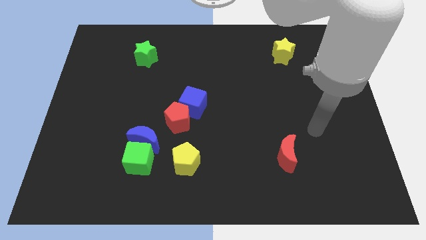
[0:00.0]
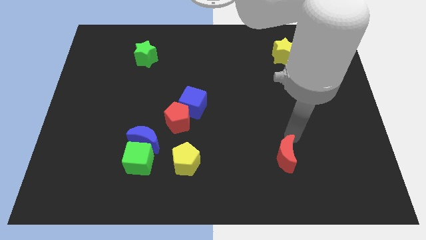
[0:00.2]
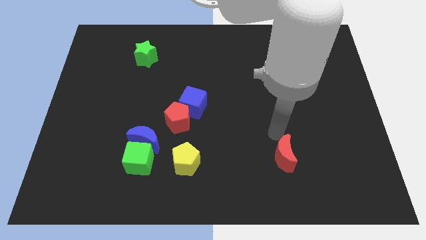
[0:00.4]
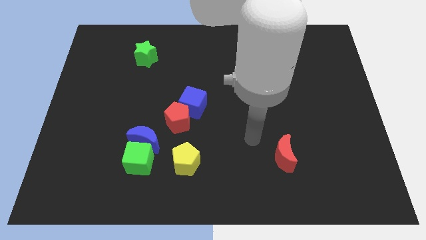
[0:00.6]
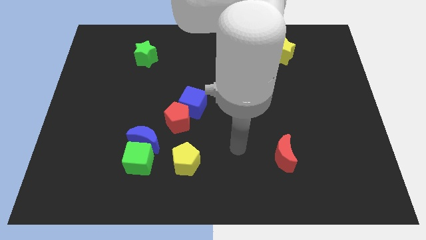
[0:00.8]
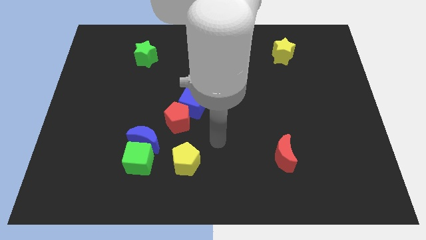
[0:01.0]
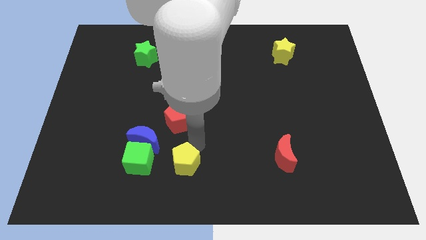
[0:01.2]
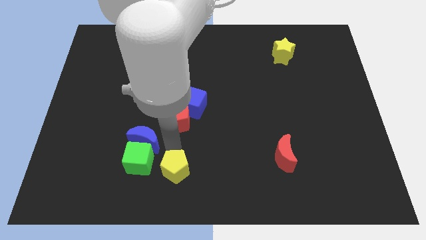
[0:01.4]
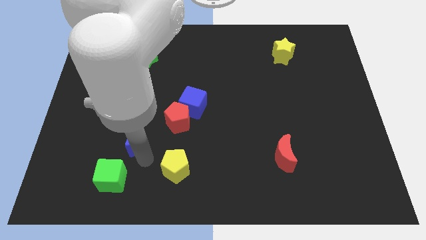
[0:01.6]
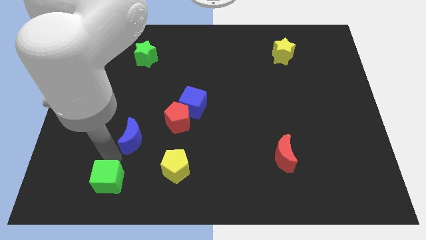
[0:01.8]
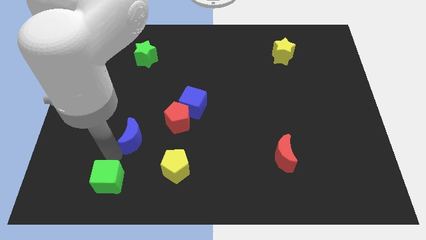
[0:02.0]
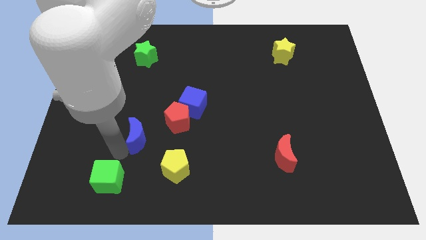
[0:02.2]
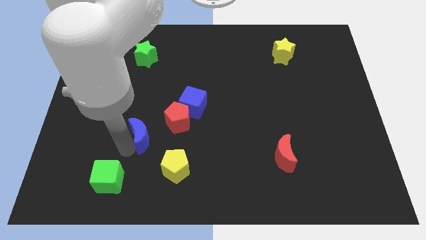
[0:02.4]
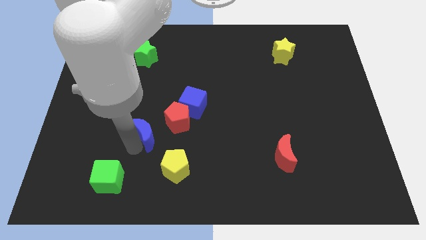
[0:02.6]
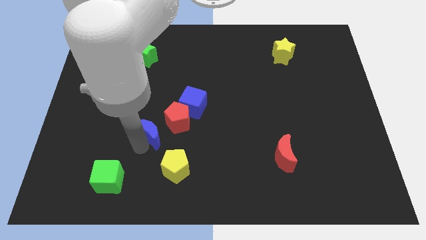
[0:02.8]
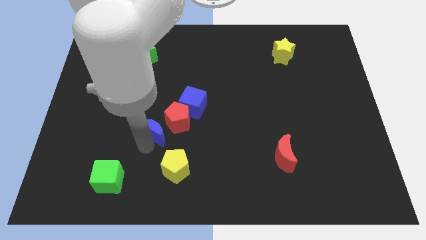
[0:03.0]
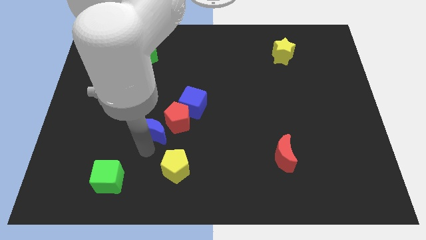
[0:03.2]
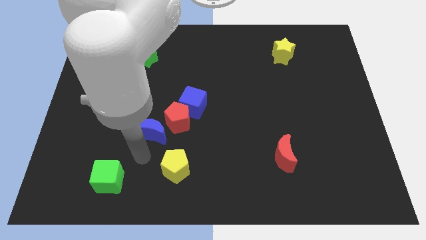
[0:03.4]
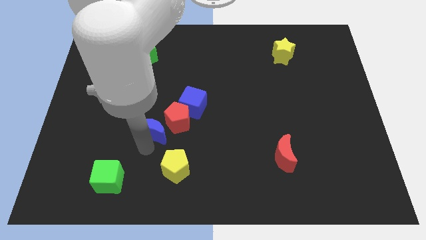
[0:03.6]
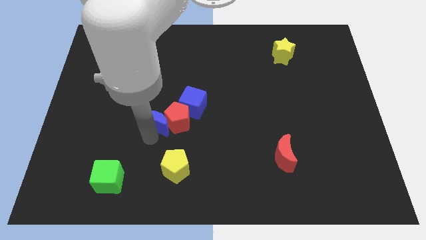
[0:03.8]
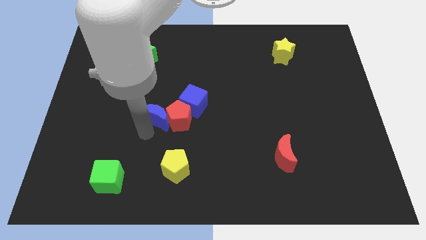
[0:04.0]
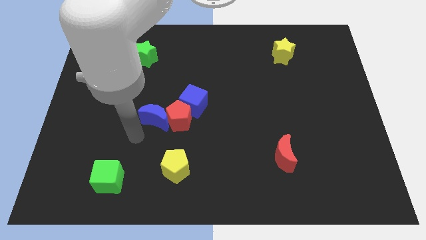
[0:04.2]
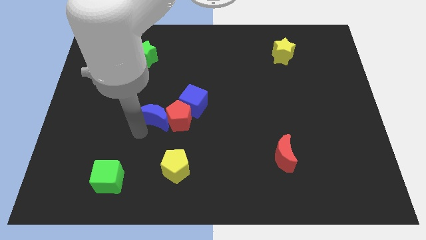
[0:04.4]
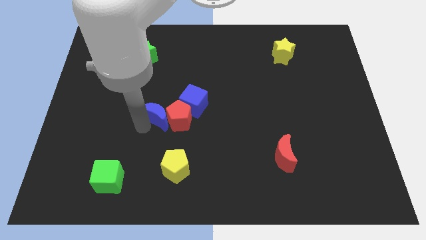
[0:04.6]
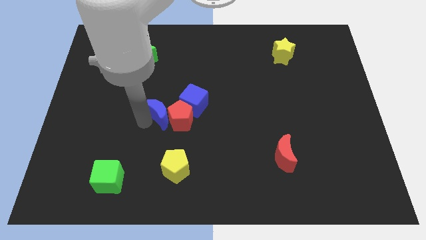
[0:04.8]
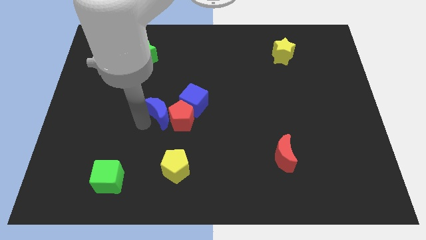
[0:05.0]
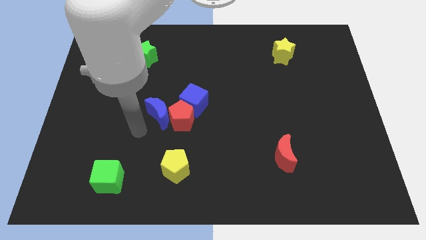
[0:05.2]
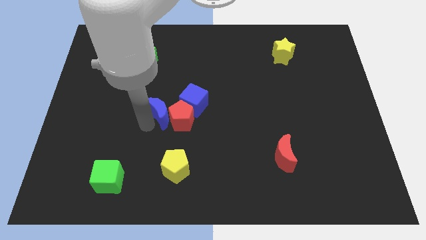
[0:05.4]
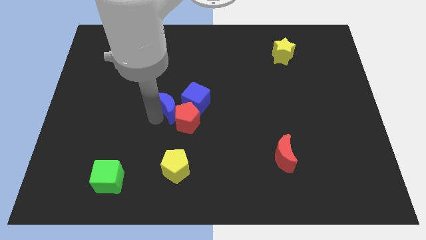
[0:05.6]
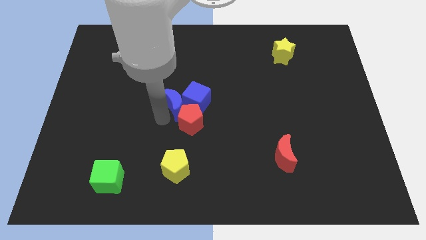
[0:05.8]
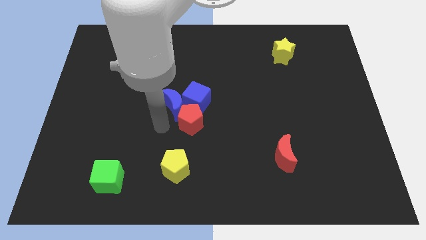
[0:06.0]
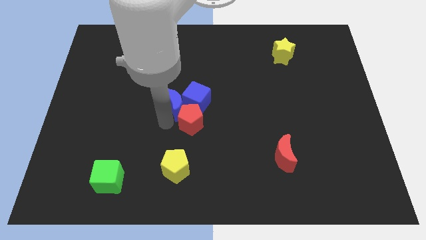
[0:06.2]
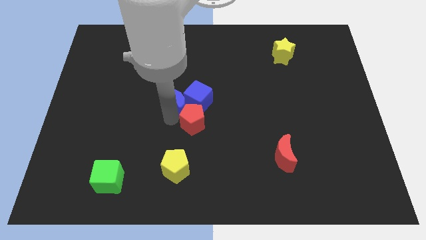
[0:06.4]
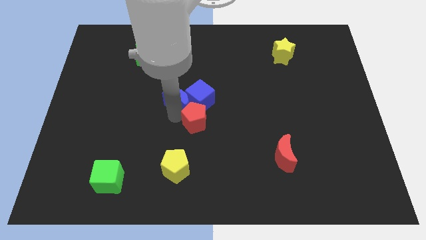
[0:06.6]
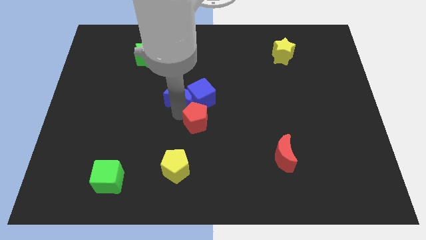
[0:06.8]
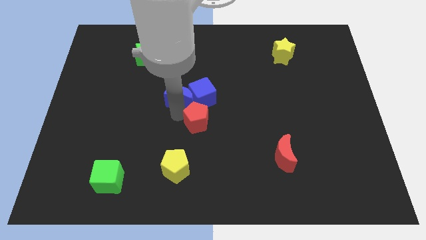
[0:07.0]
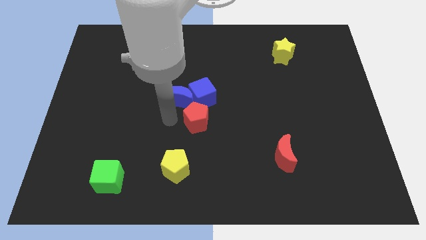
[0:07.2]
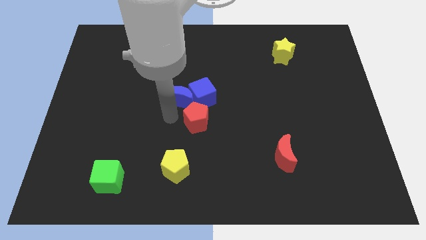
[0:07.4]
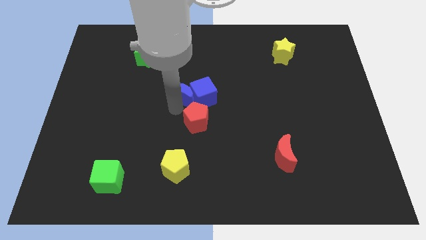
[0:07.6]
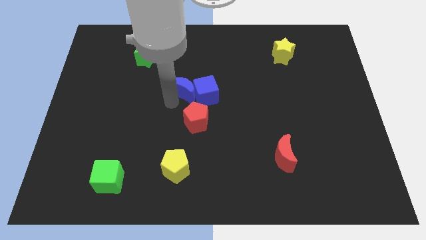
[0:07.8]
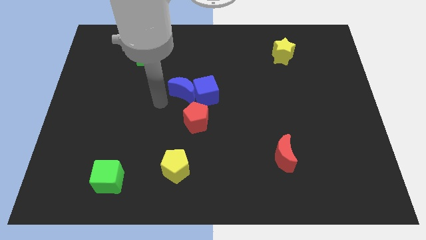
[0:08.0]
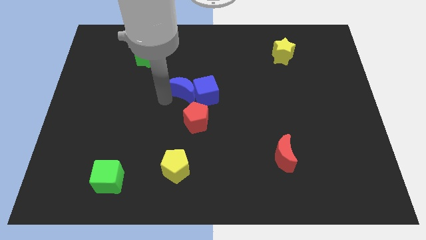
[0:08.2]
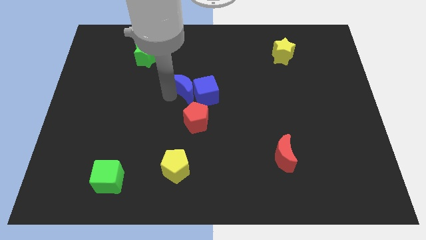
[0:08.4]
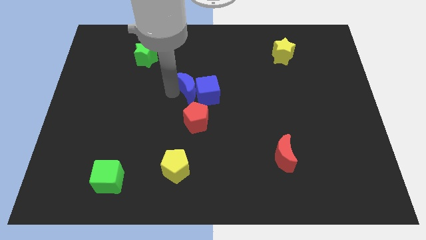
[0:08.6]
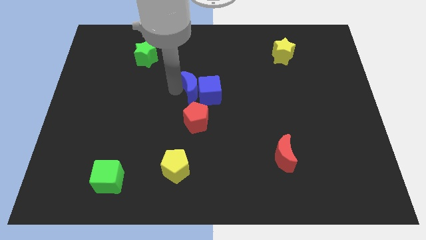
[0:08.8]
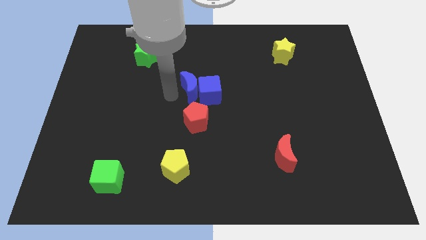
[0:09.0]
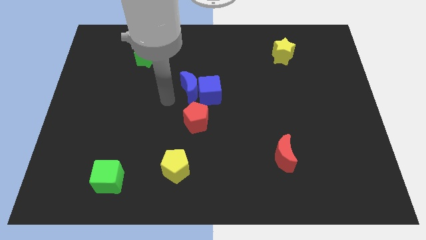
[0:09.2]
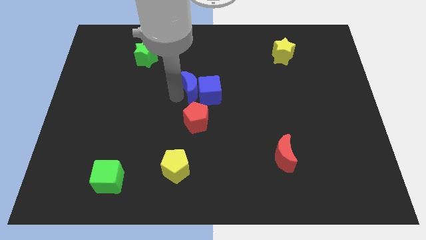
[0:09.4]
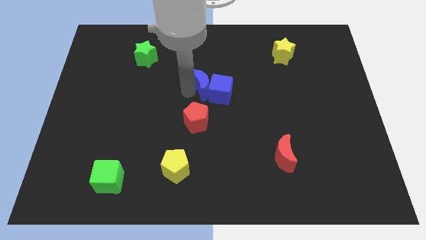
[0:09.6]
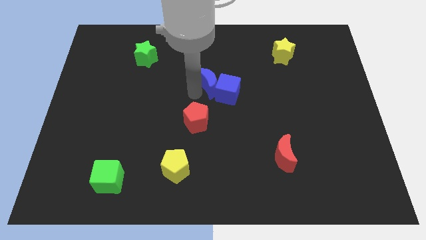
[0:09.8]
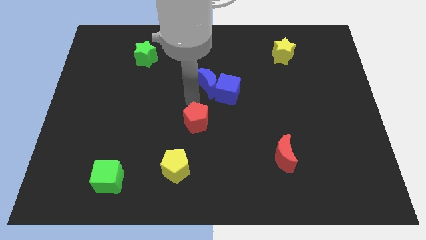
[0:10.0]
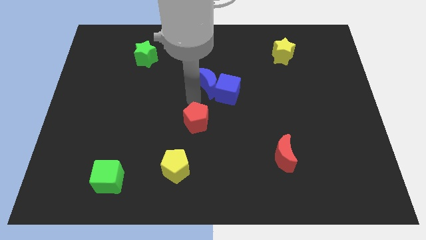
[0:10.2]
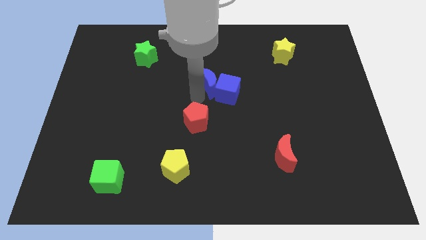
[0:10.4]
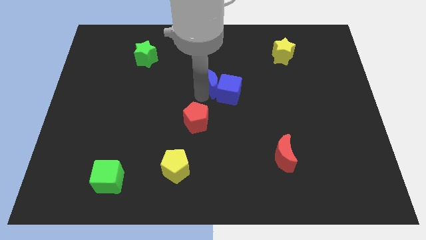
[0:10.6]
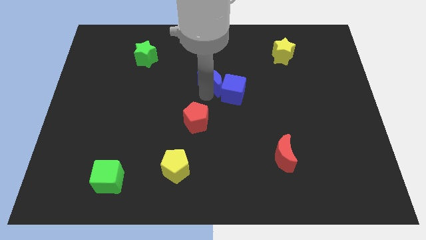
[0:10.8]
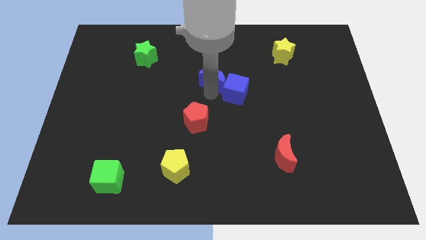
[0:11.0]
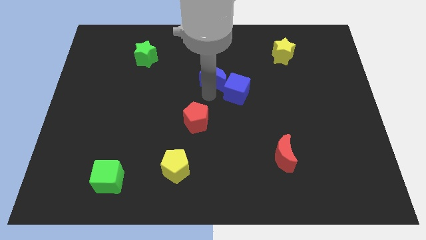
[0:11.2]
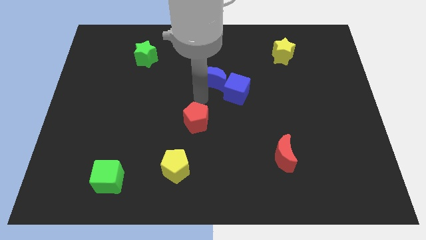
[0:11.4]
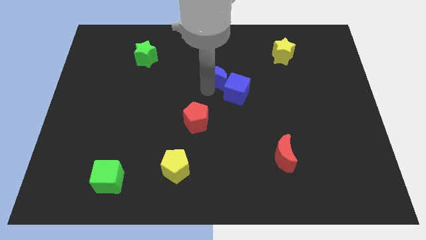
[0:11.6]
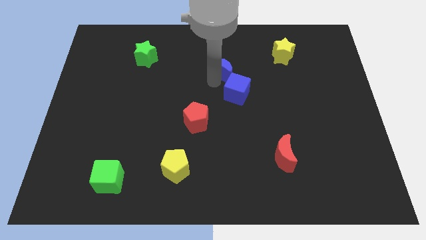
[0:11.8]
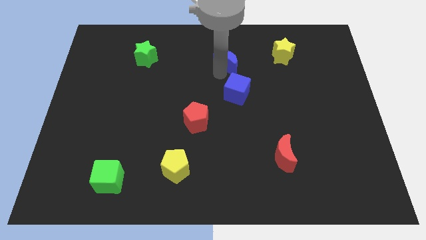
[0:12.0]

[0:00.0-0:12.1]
move the blue moon to the left side of the yellow star

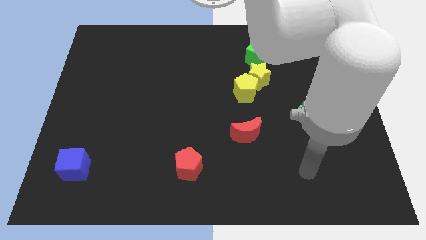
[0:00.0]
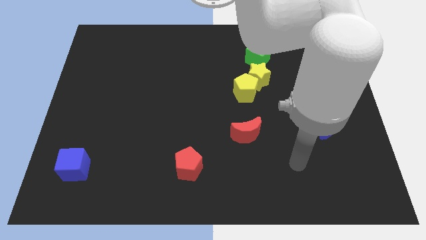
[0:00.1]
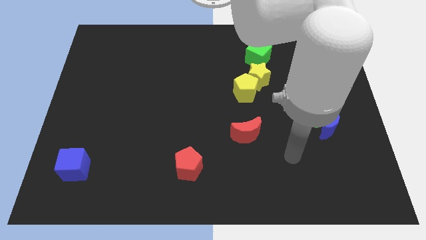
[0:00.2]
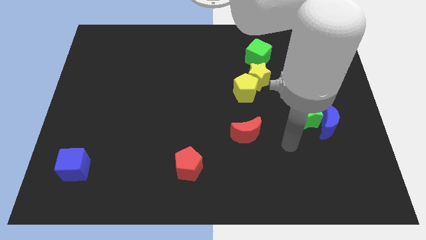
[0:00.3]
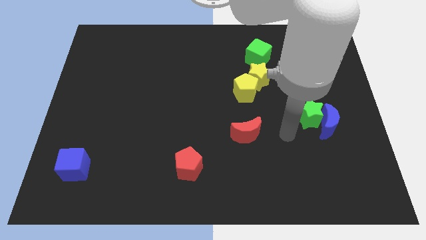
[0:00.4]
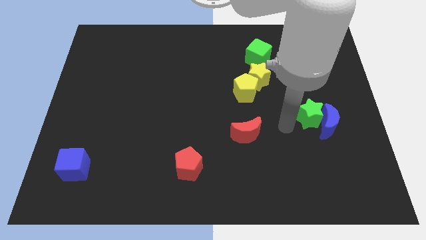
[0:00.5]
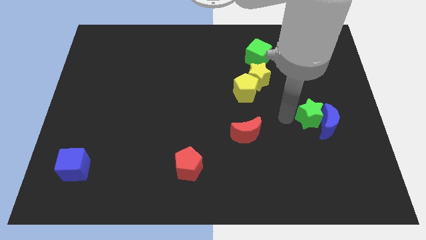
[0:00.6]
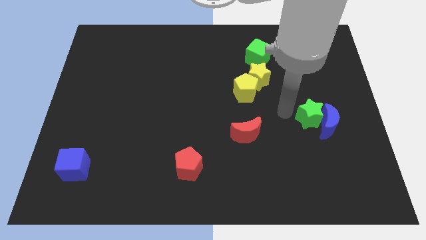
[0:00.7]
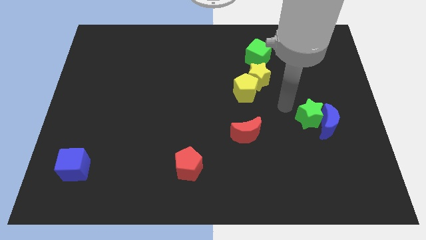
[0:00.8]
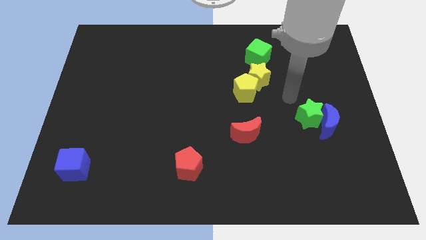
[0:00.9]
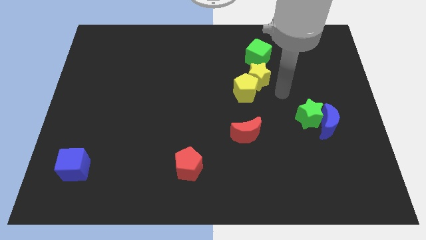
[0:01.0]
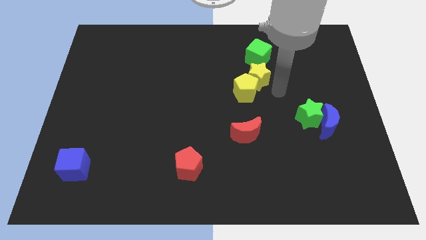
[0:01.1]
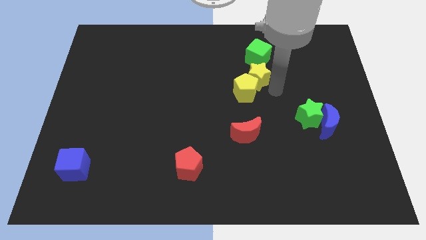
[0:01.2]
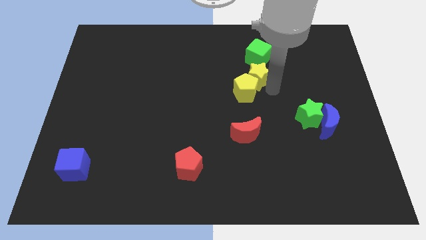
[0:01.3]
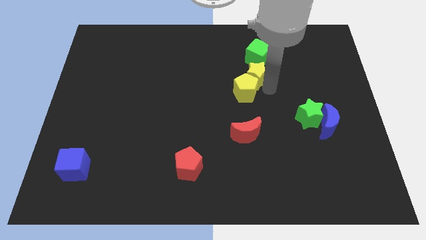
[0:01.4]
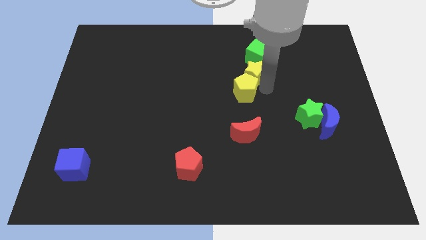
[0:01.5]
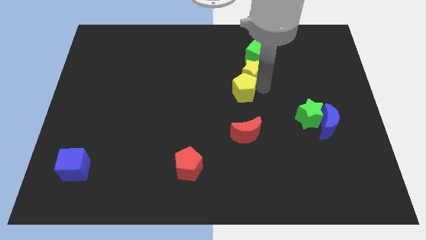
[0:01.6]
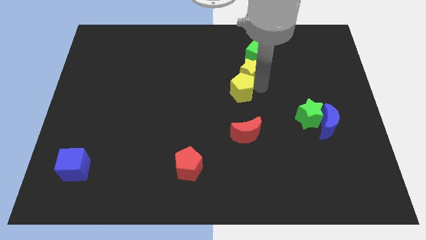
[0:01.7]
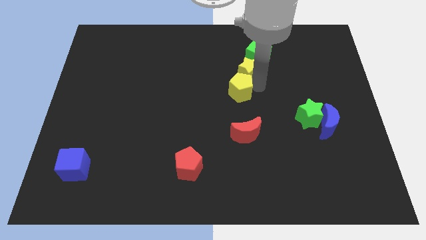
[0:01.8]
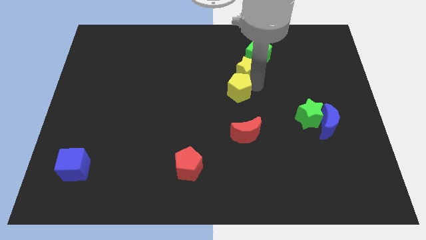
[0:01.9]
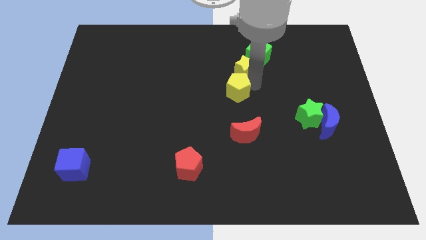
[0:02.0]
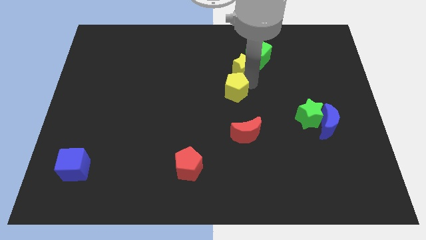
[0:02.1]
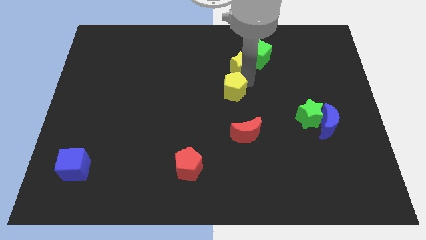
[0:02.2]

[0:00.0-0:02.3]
put the yellow star just left of the green cube
